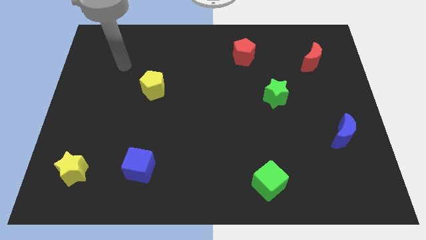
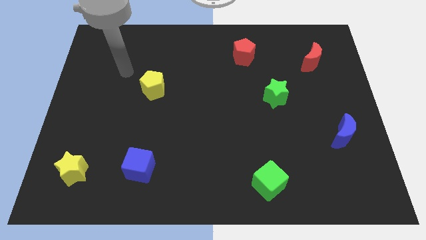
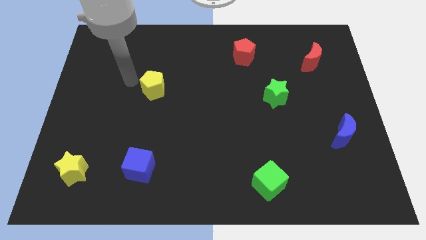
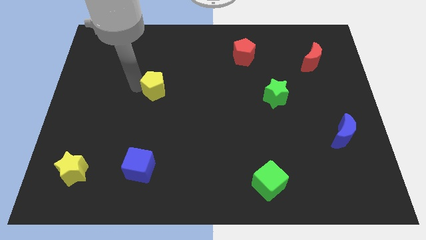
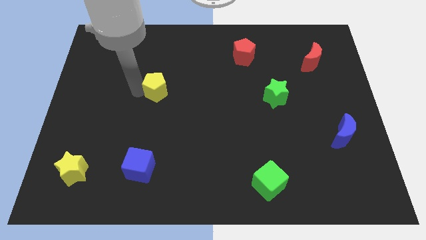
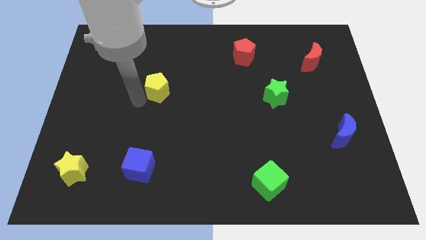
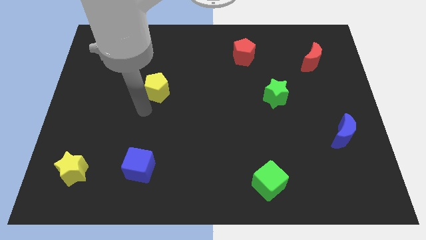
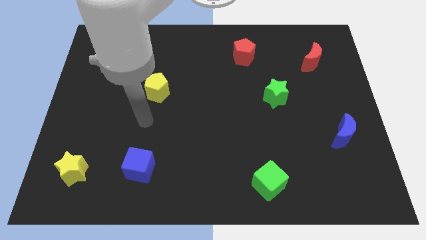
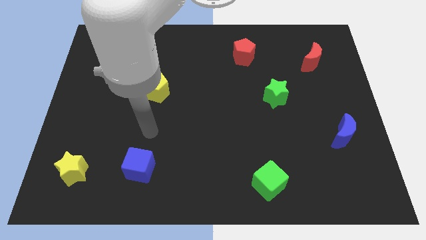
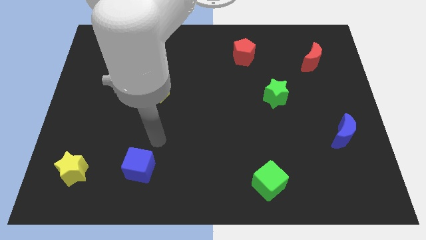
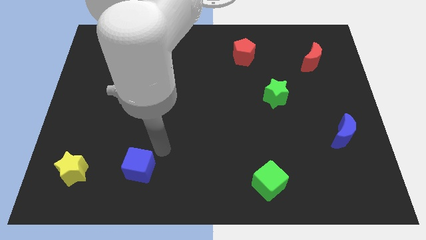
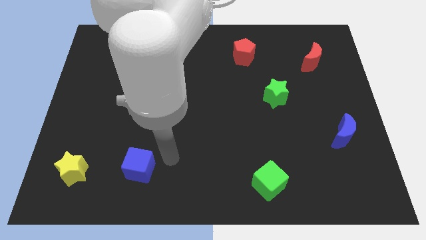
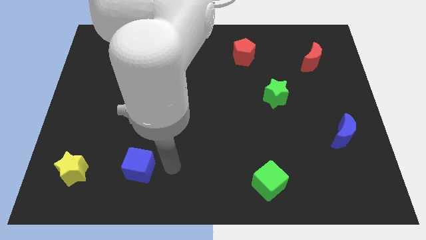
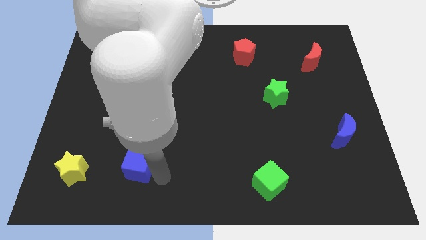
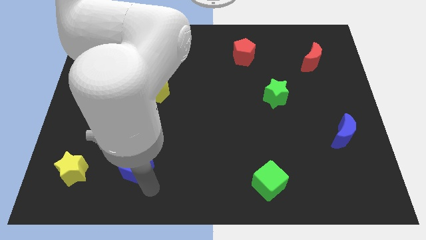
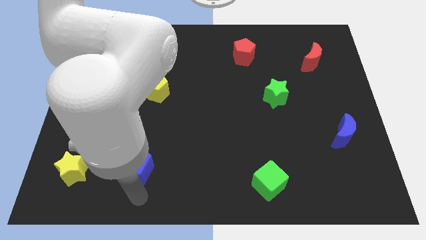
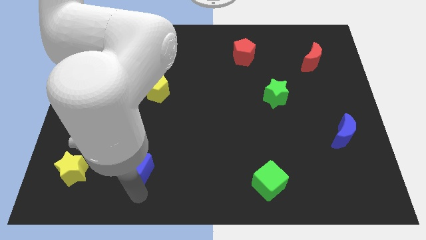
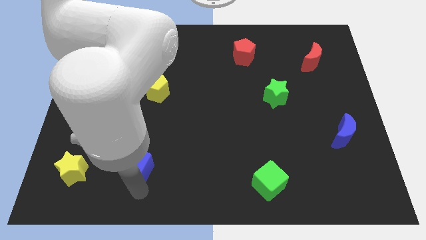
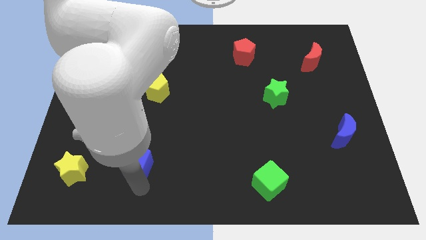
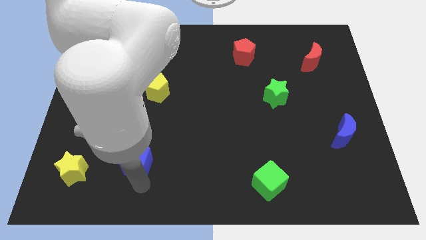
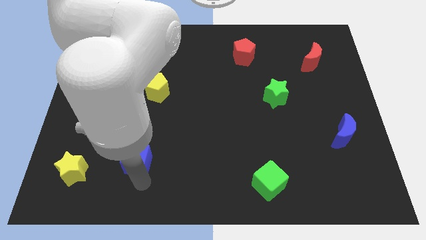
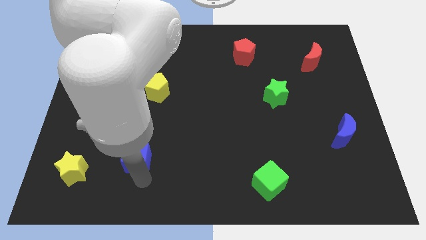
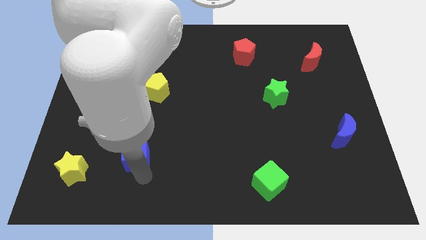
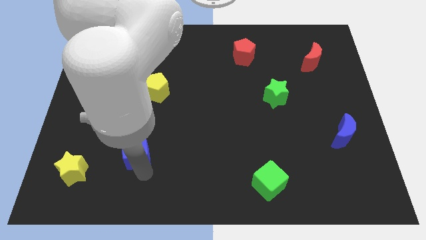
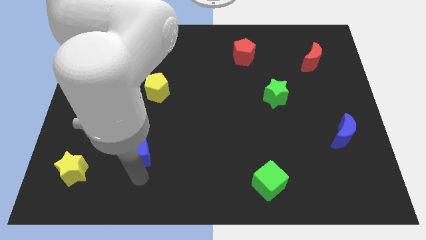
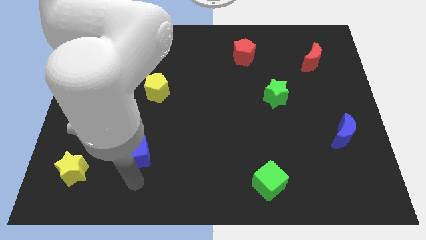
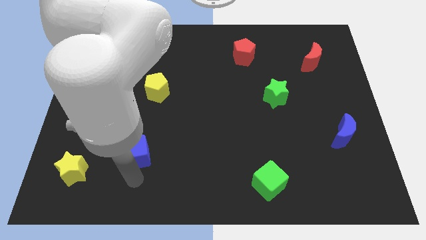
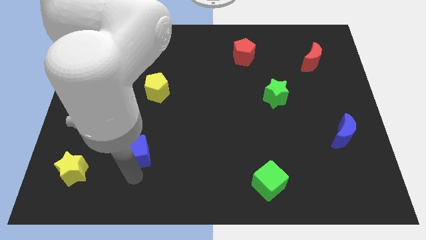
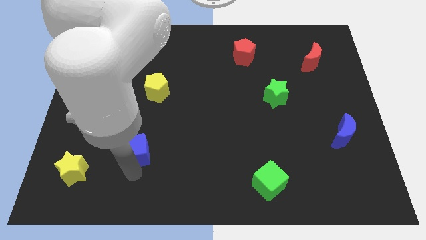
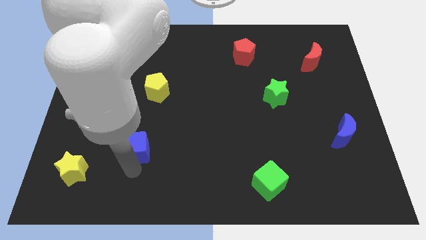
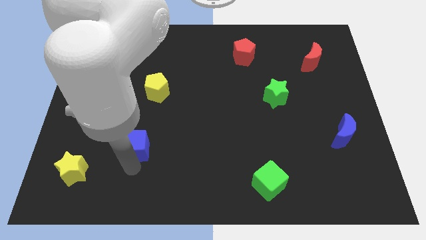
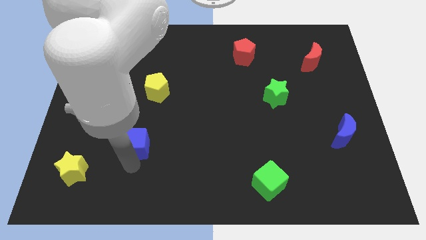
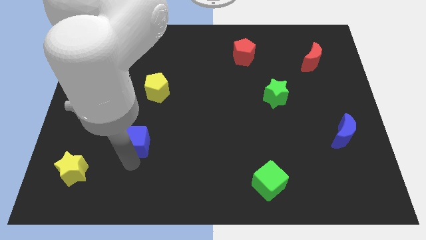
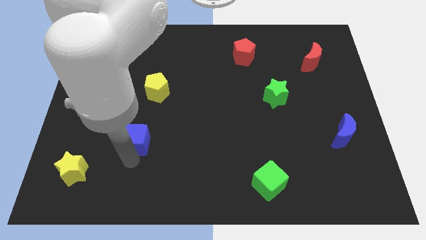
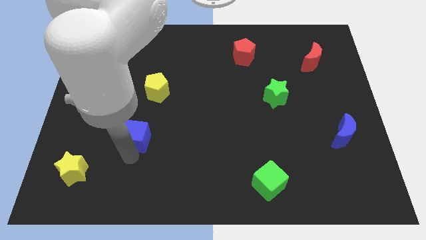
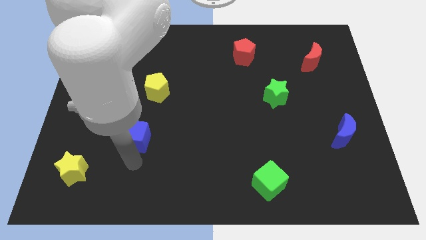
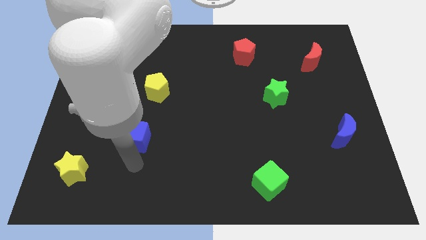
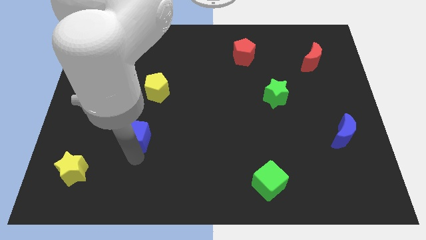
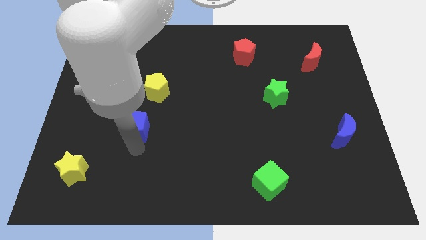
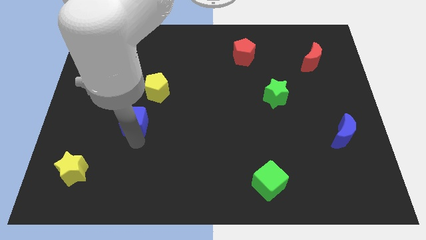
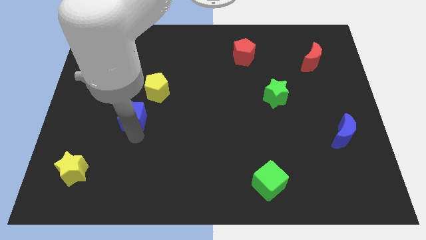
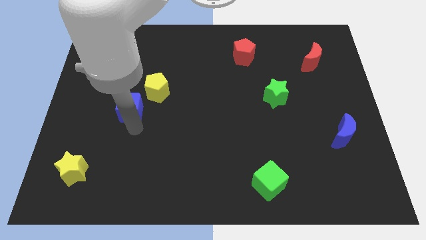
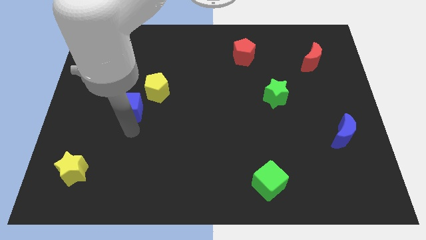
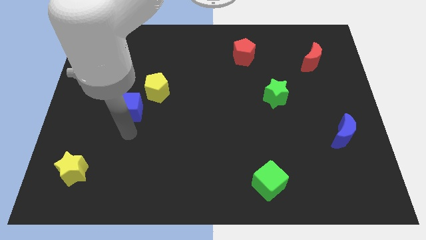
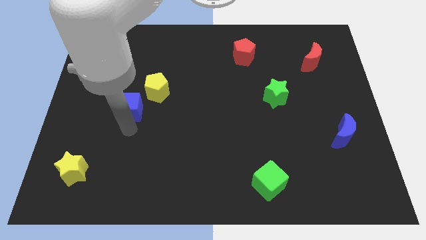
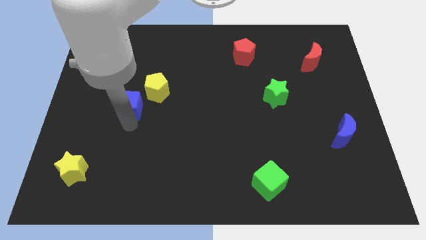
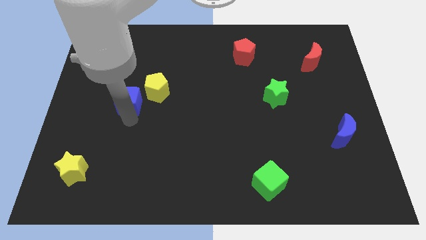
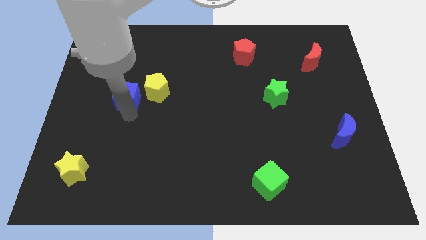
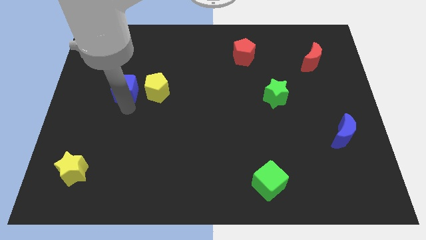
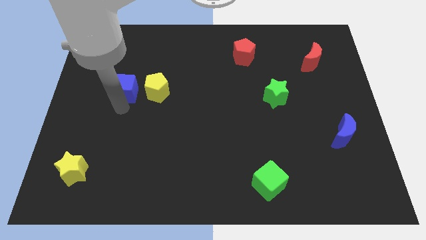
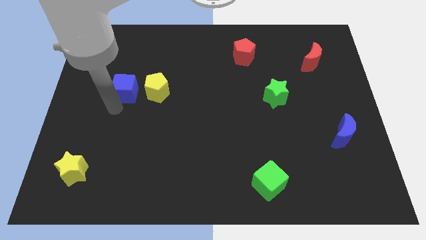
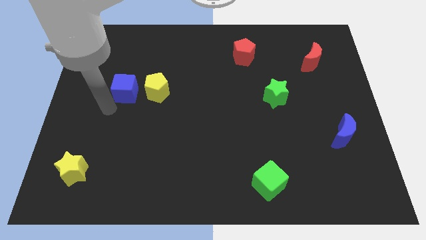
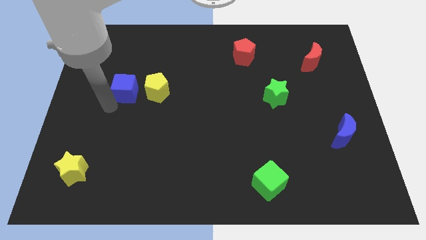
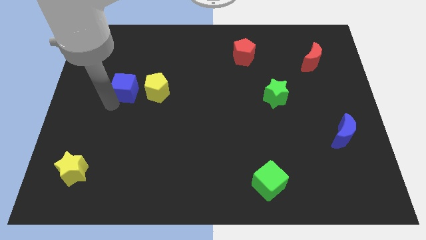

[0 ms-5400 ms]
push the blue cube up

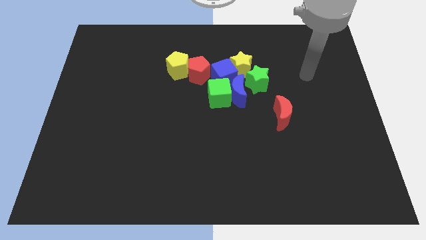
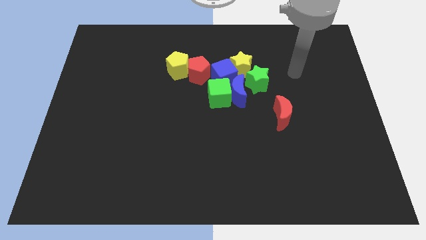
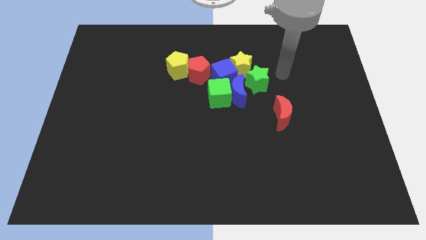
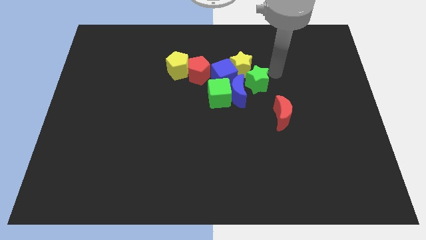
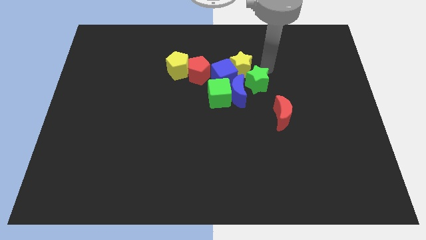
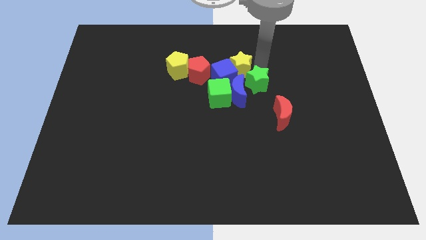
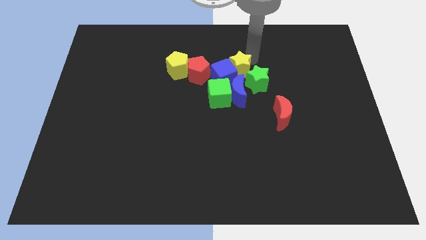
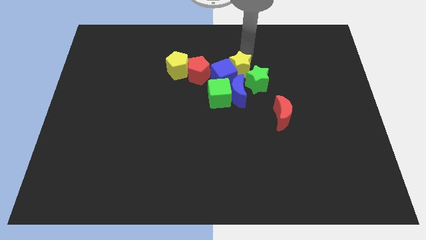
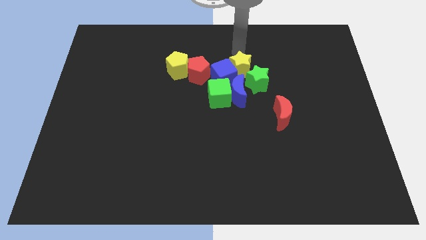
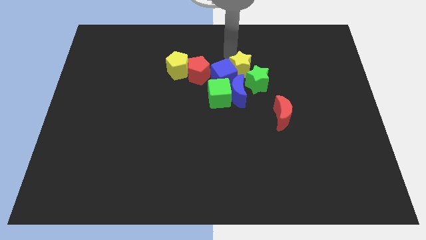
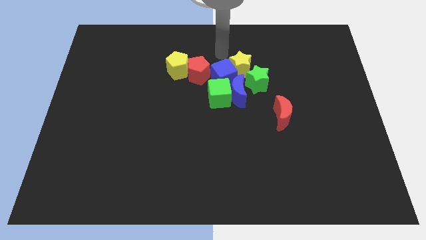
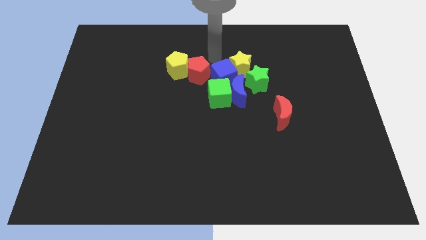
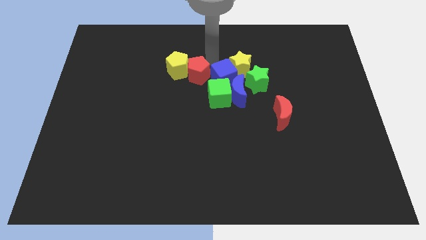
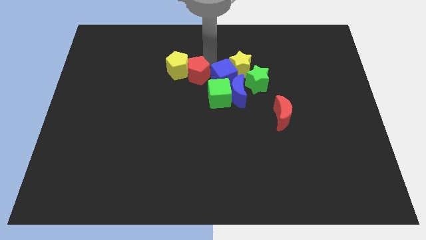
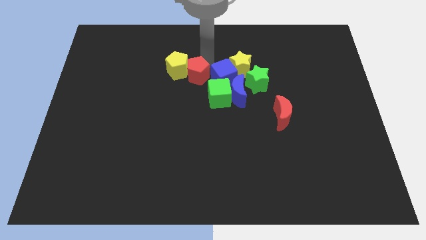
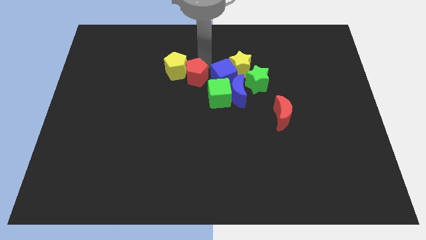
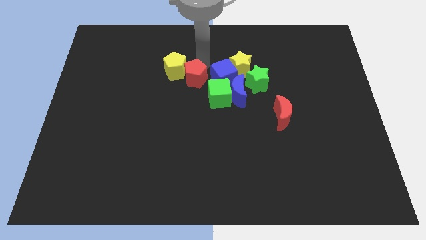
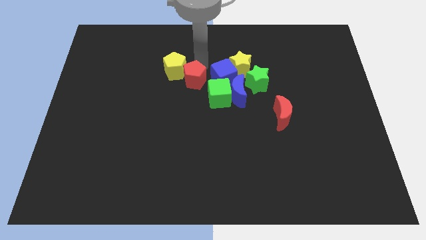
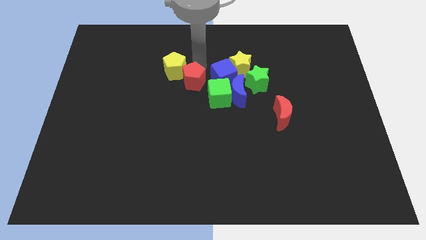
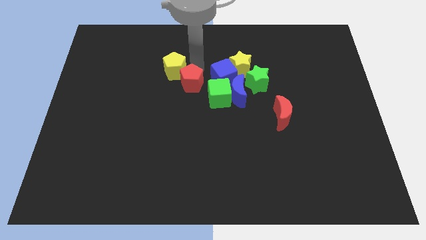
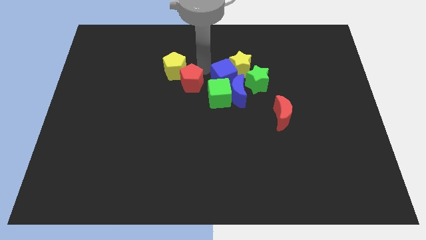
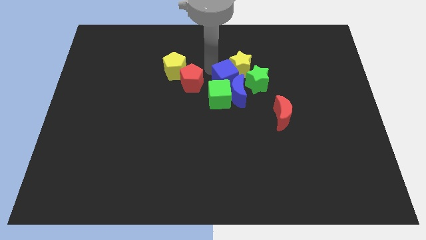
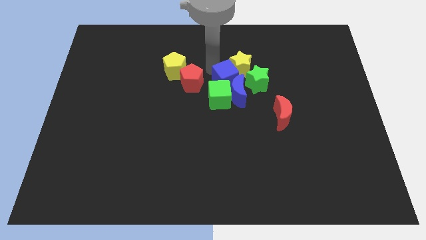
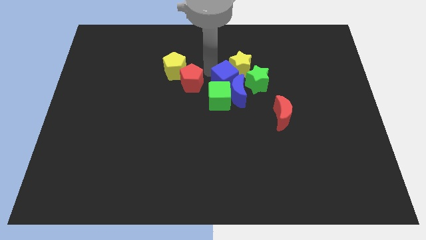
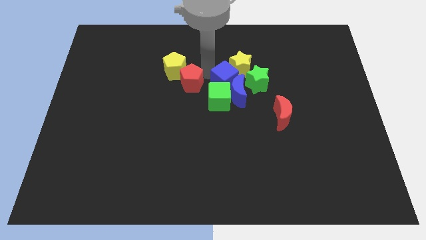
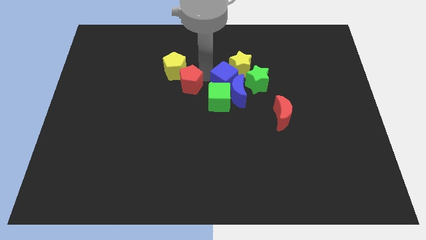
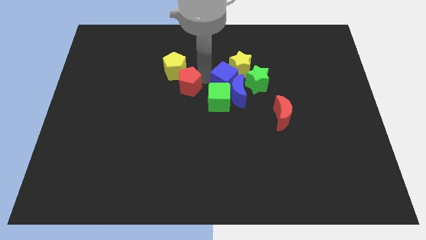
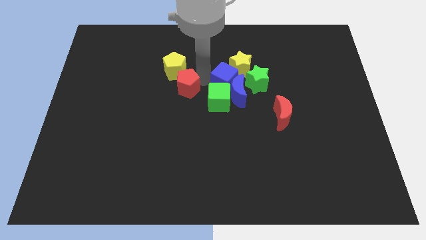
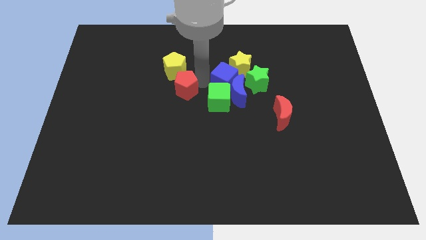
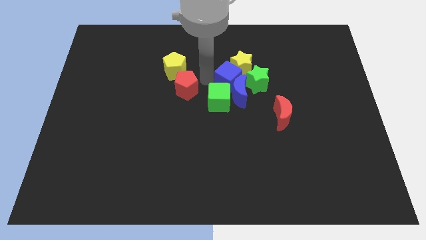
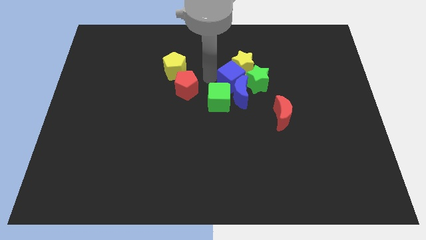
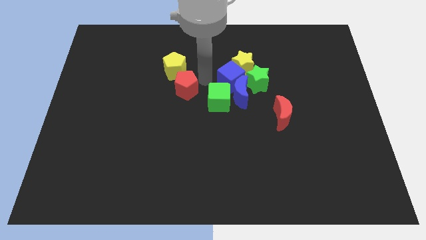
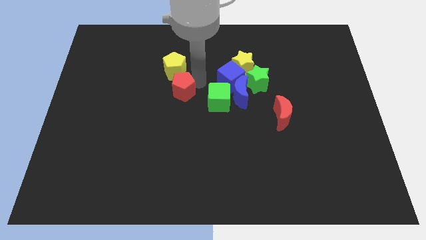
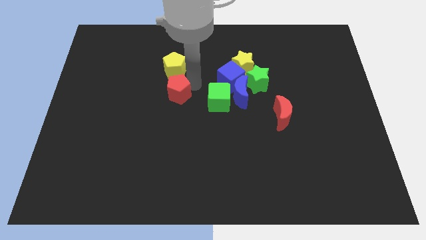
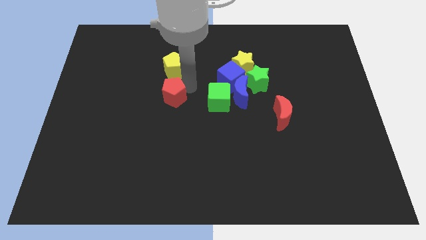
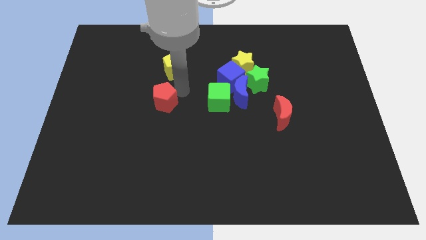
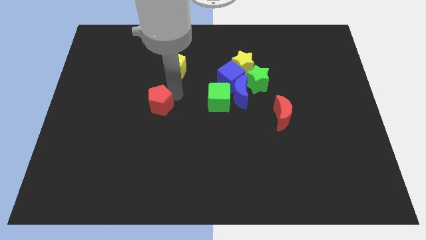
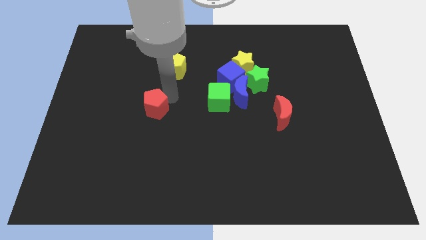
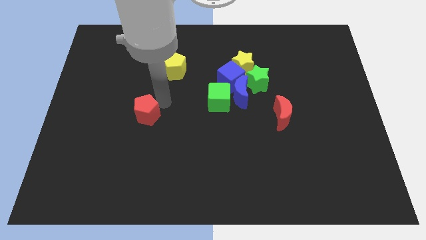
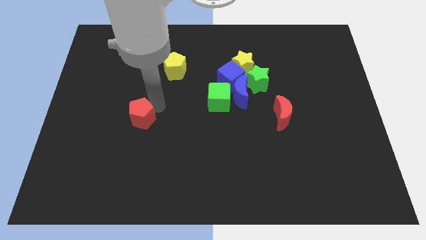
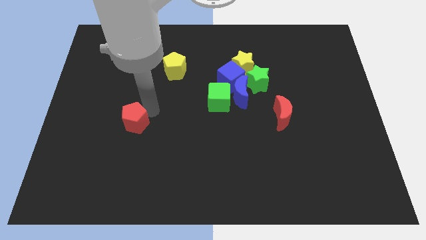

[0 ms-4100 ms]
push the red pentagon down and then left
